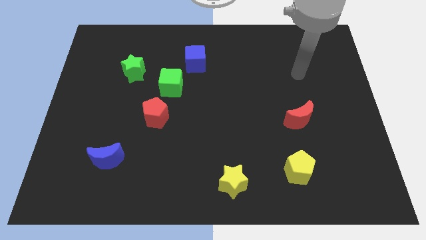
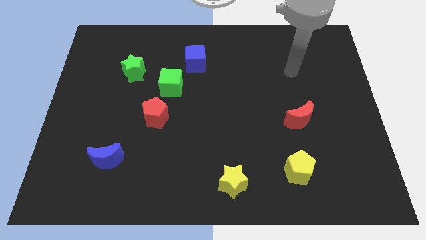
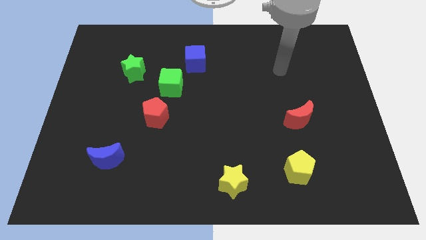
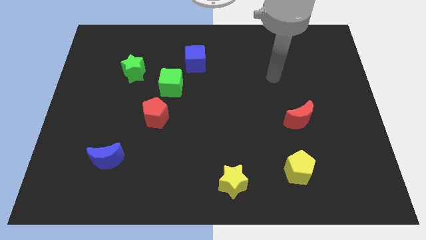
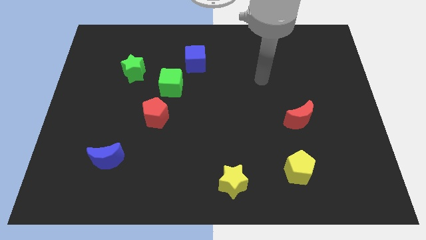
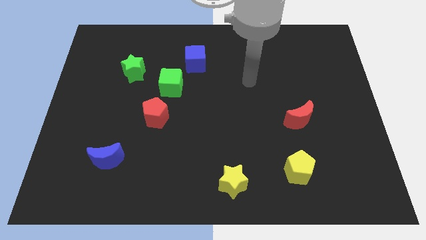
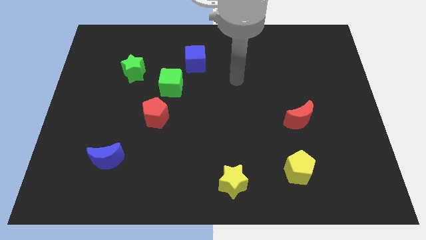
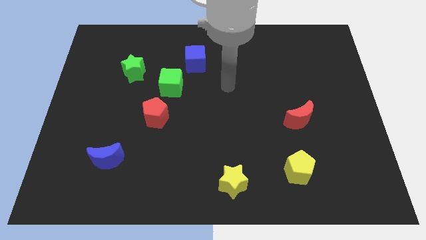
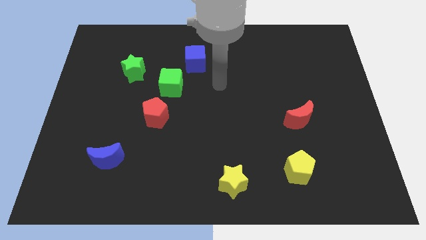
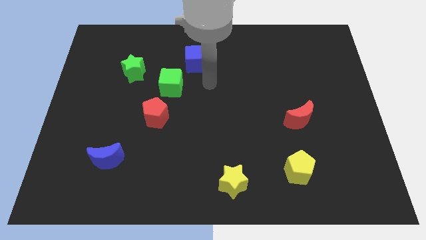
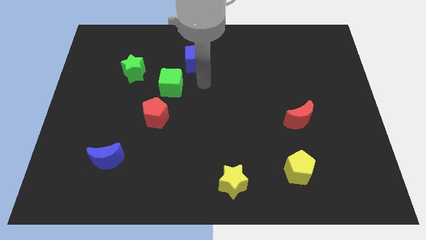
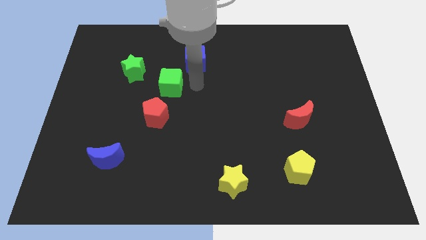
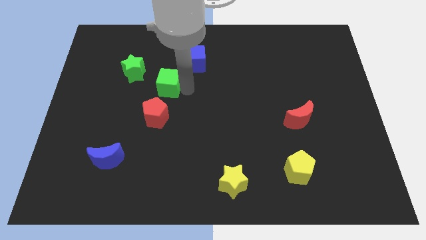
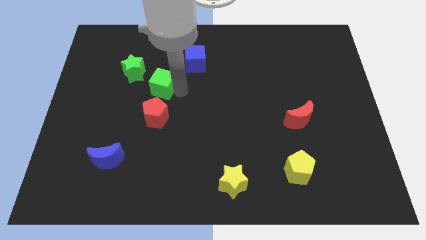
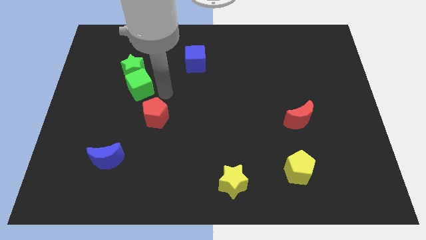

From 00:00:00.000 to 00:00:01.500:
pull the red pentagon apart from the green cube

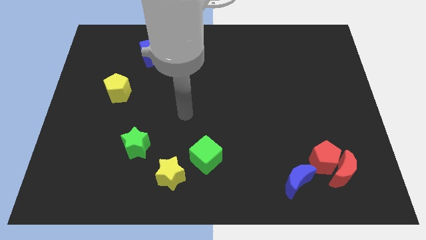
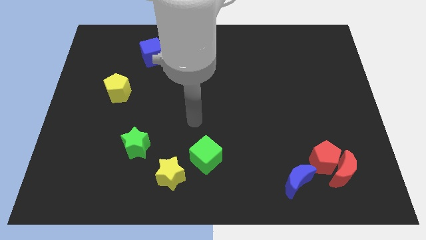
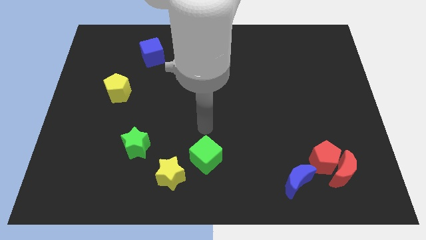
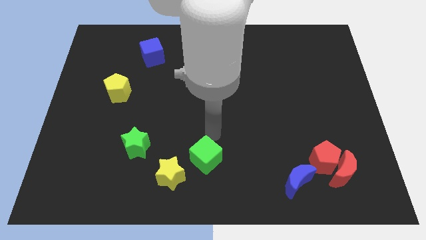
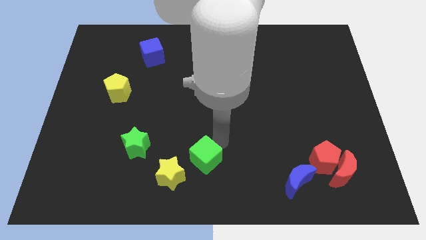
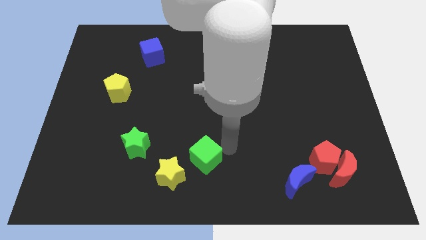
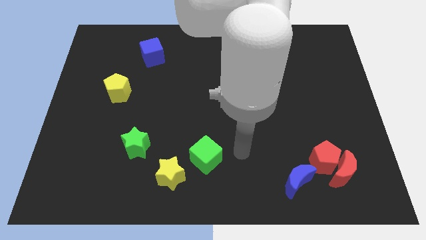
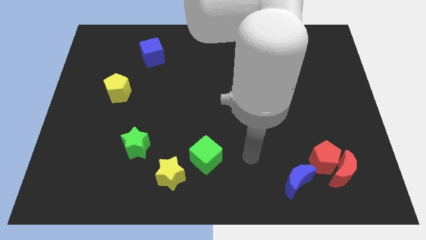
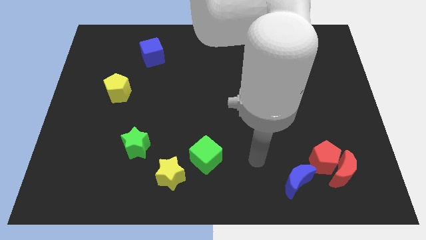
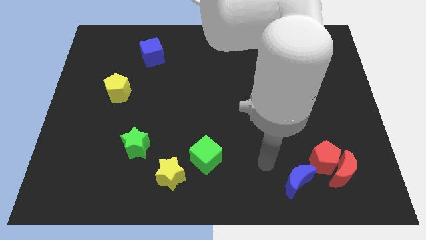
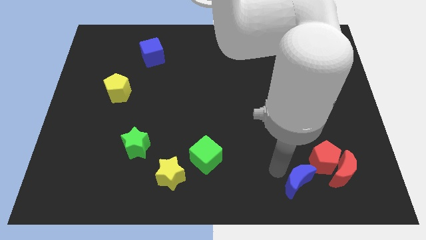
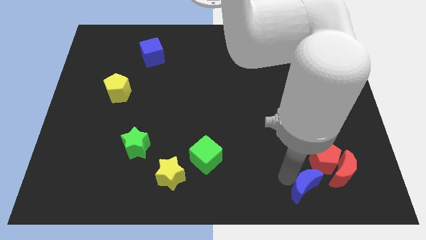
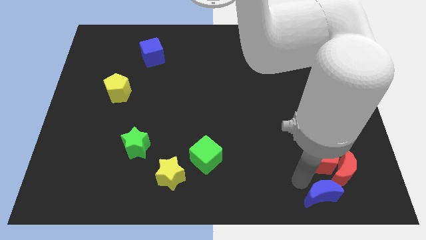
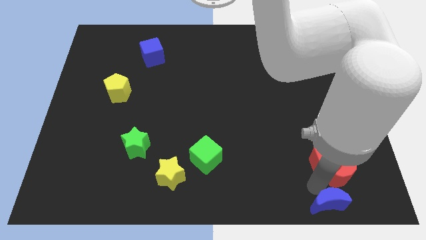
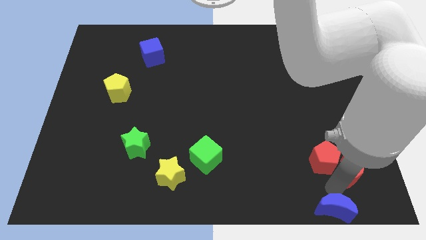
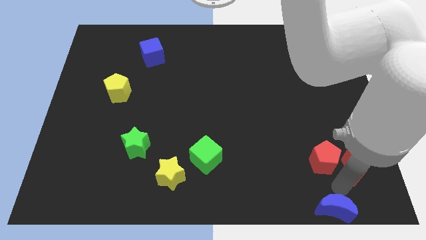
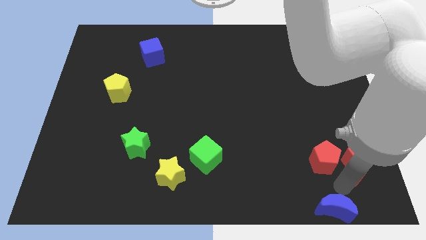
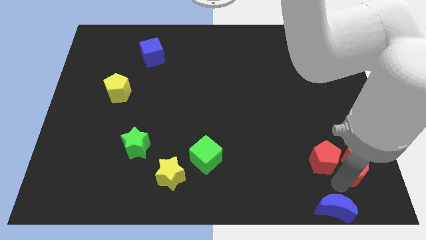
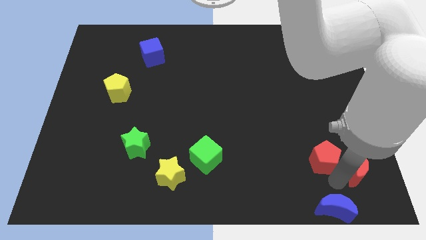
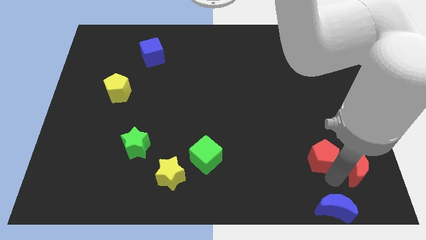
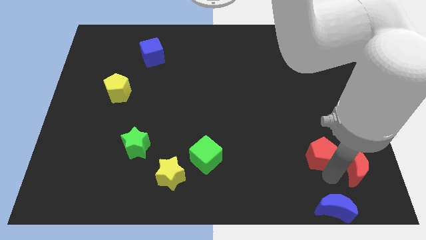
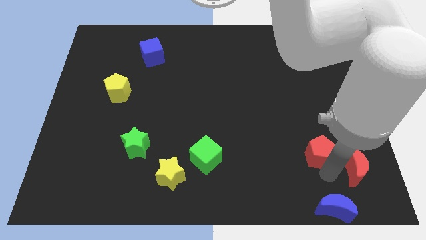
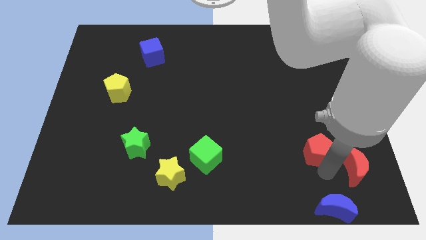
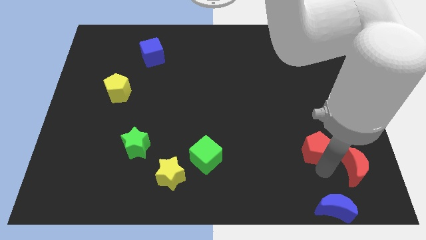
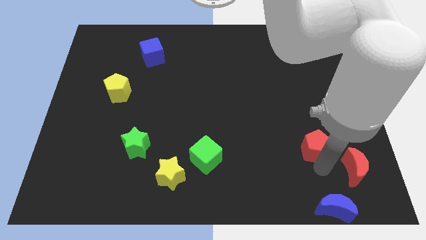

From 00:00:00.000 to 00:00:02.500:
move the red pentagon away from the red moon and blue moon

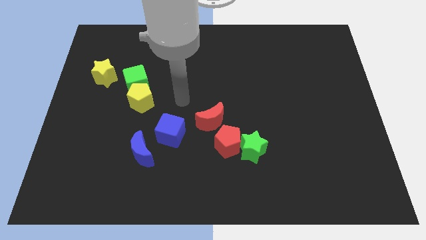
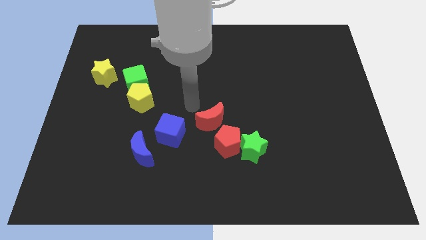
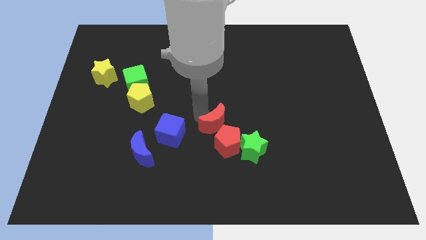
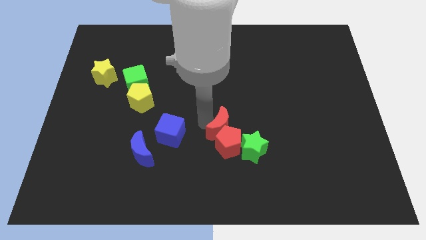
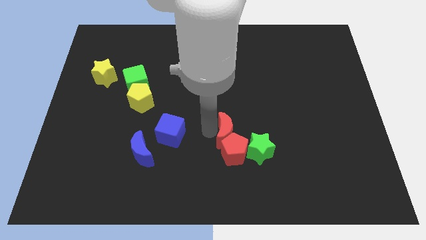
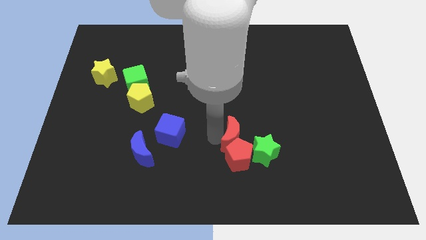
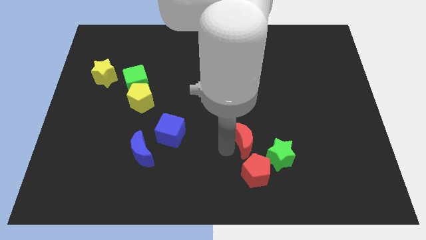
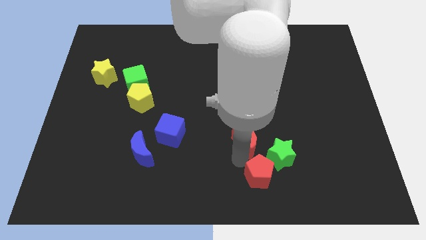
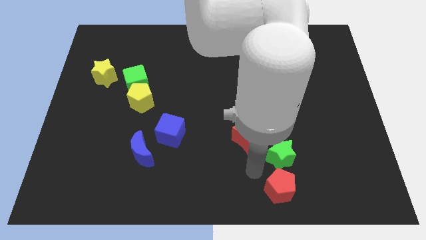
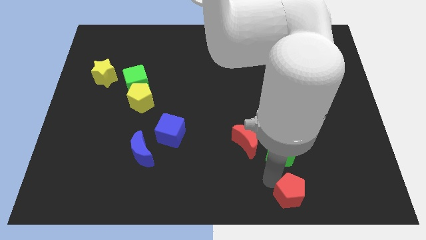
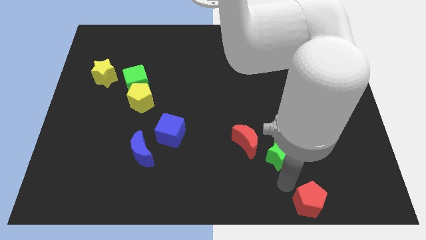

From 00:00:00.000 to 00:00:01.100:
pull the green star apart from the red pentagon

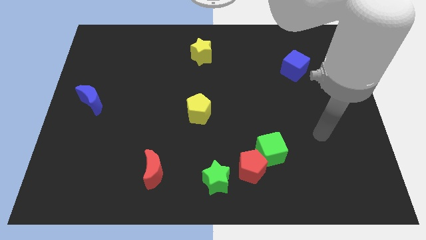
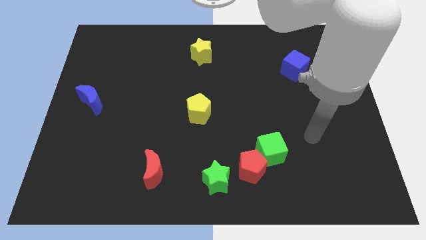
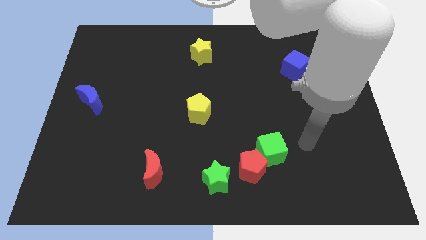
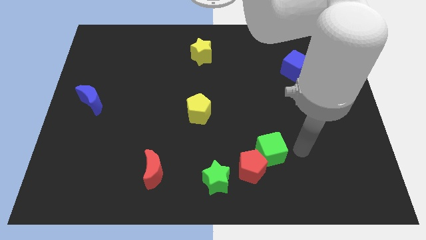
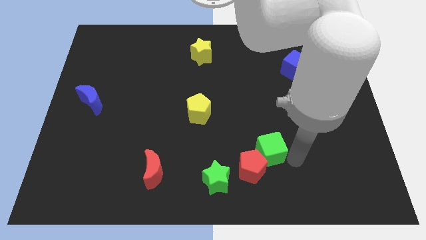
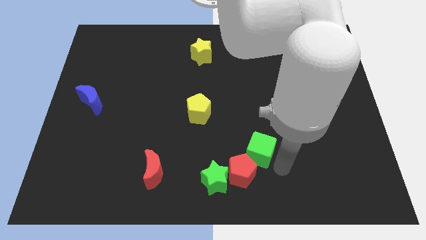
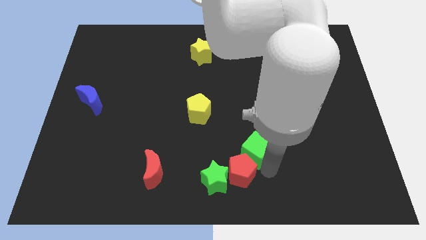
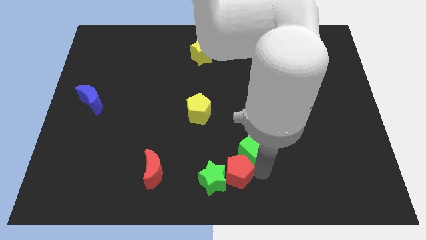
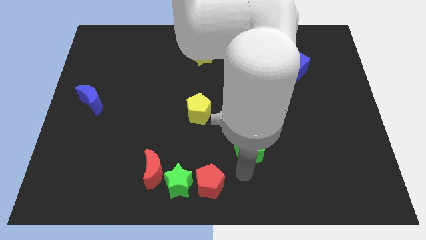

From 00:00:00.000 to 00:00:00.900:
move the green cube away from the red pentagon

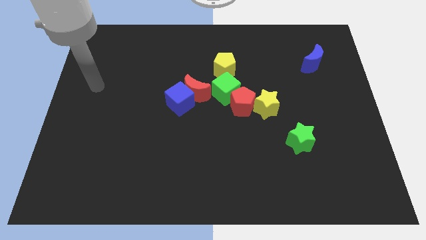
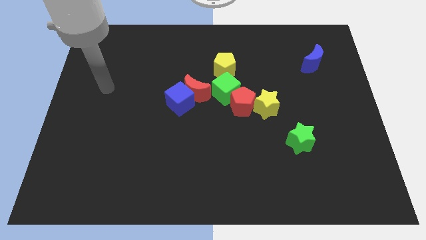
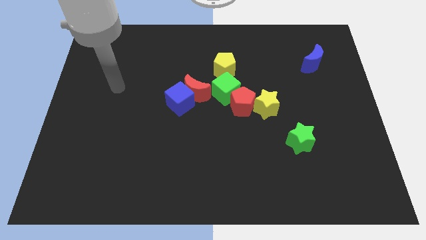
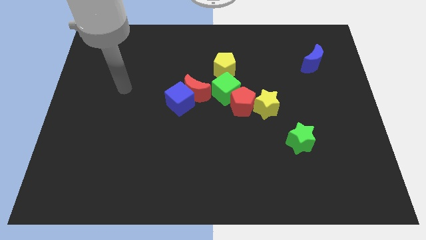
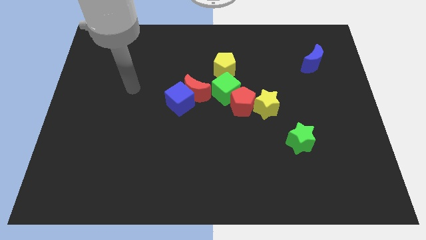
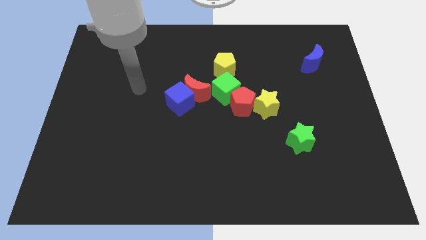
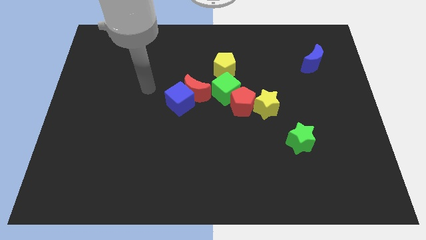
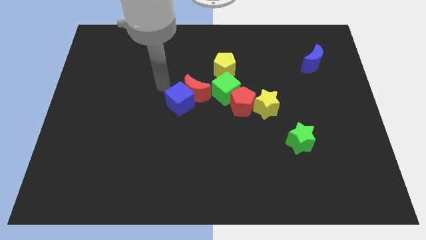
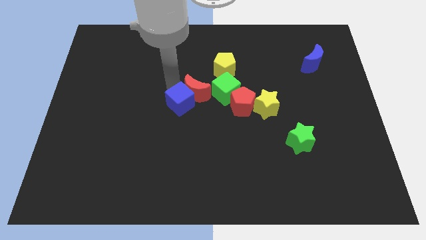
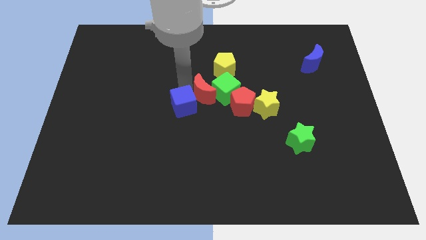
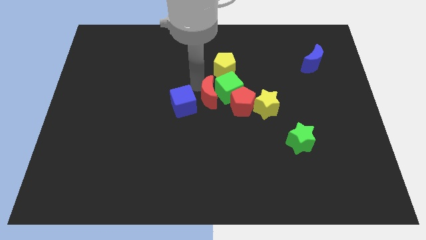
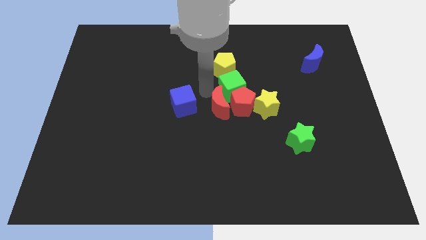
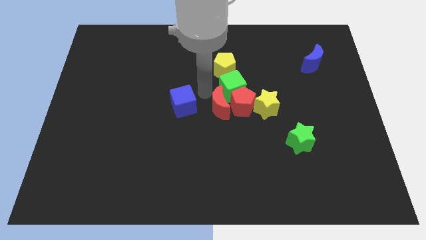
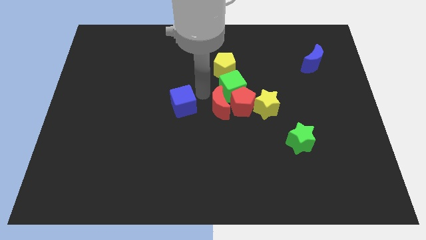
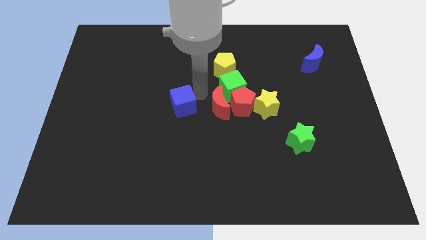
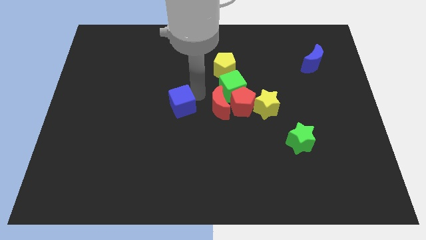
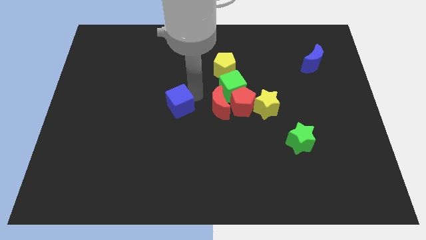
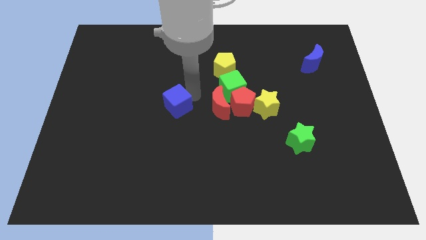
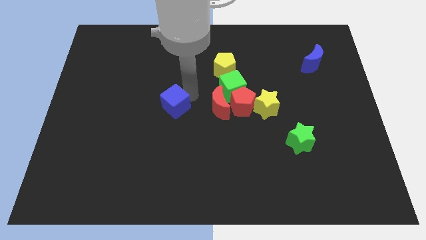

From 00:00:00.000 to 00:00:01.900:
pull the blue cube apart from the red moon

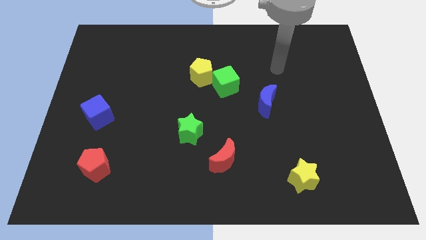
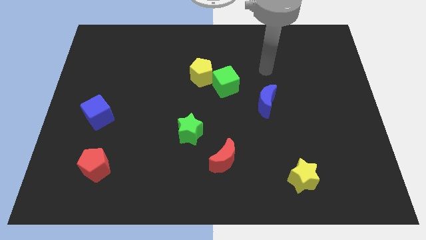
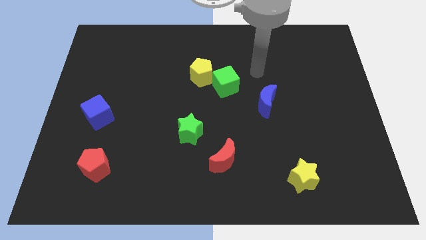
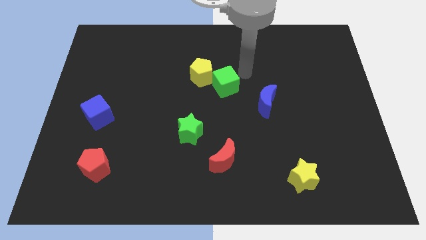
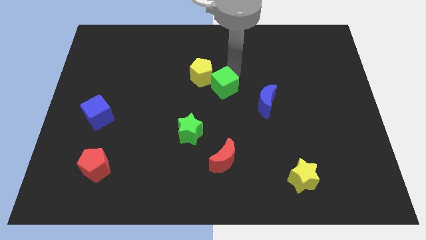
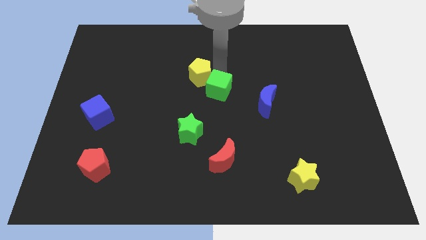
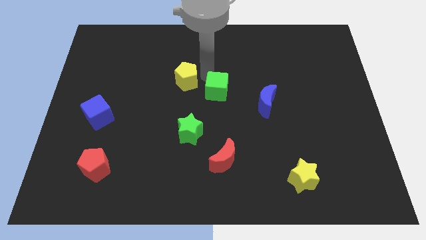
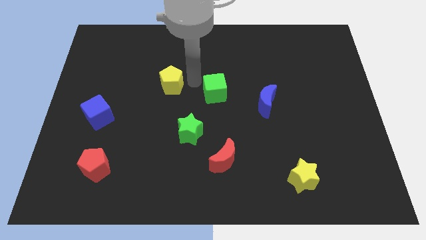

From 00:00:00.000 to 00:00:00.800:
pull the green cube apart from the yellow pentagon

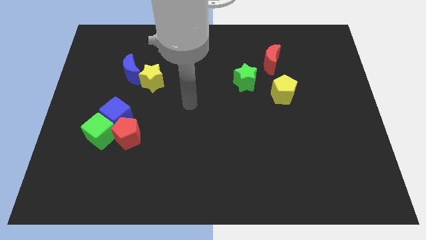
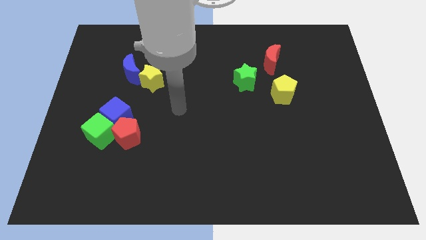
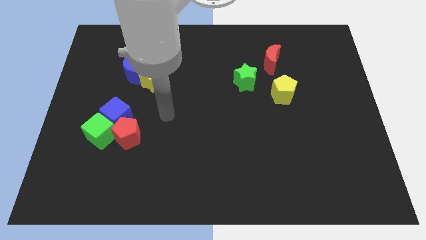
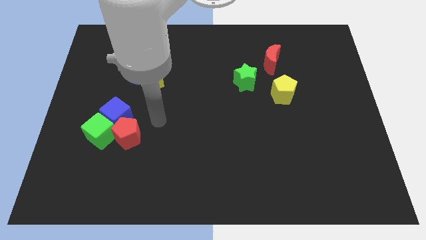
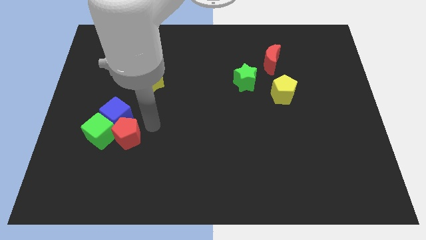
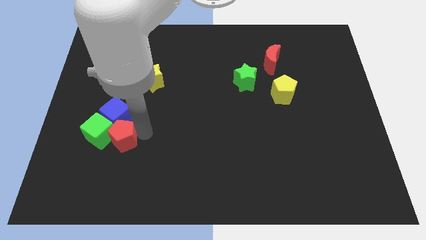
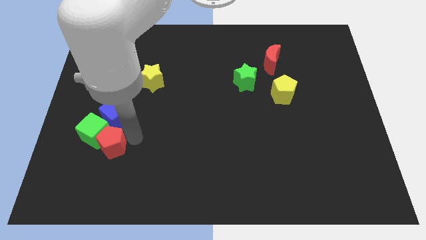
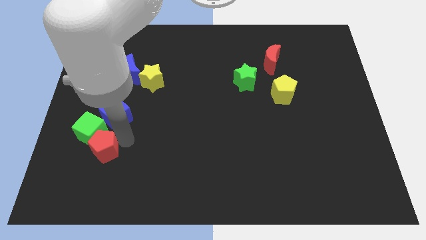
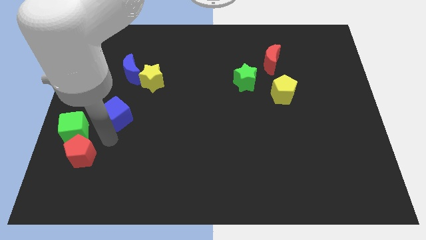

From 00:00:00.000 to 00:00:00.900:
pull the blue cube apart from the green cube and red pentagon
